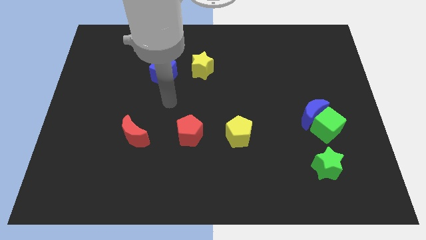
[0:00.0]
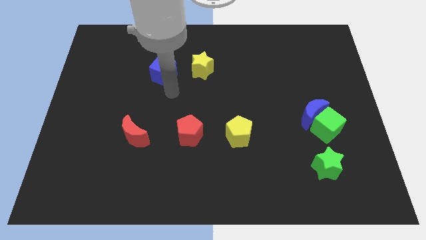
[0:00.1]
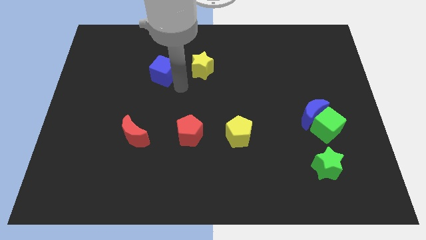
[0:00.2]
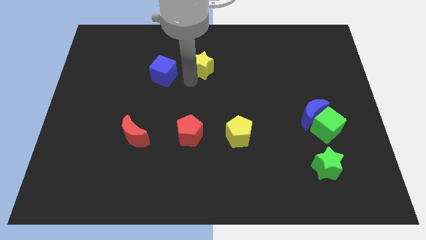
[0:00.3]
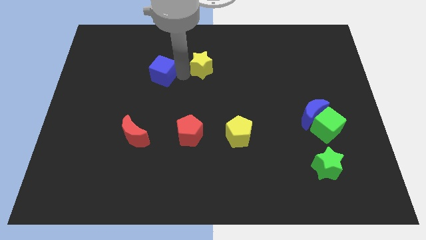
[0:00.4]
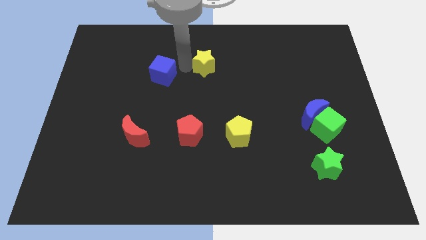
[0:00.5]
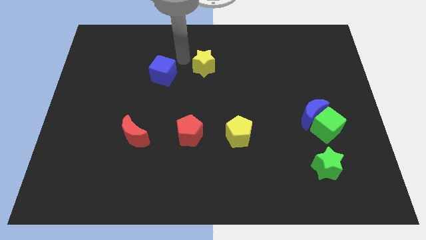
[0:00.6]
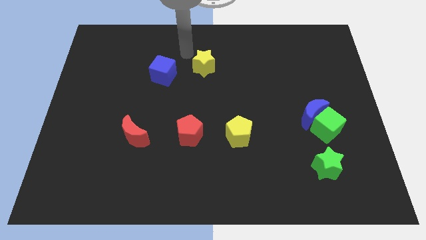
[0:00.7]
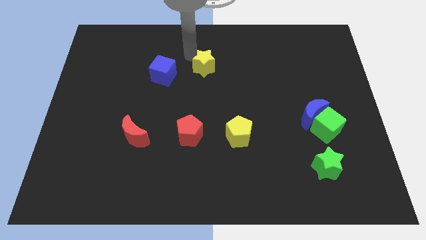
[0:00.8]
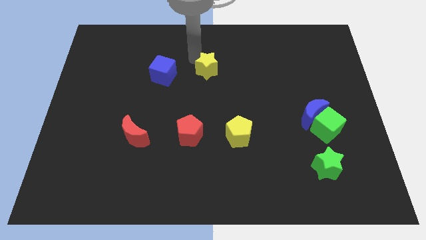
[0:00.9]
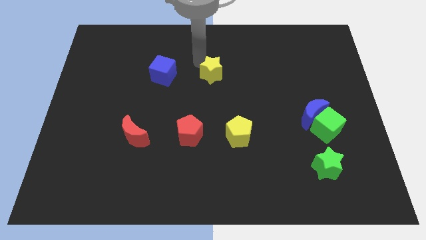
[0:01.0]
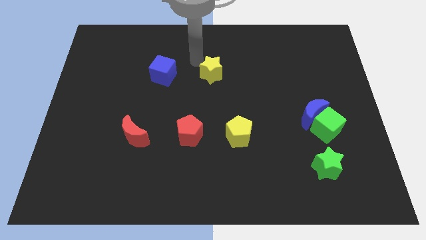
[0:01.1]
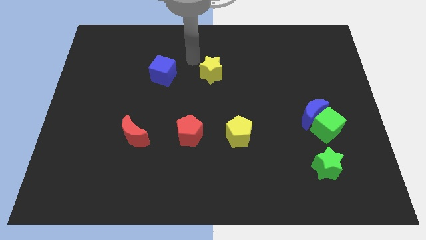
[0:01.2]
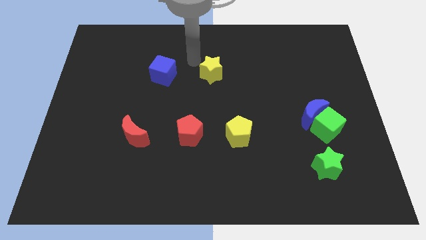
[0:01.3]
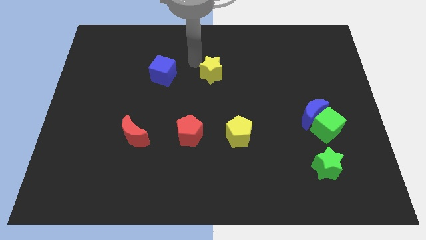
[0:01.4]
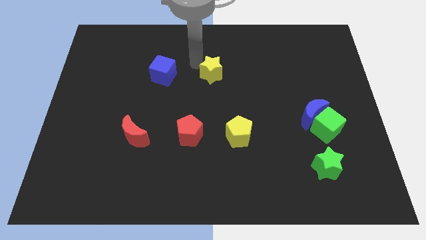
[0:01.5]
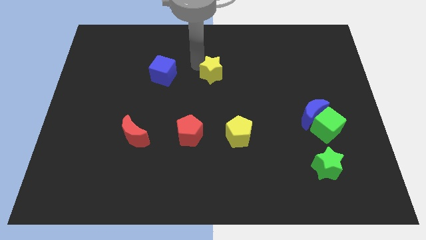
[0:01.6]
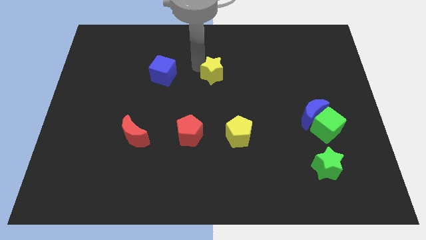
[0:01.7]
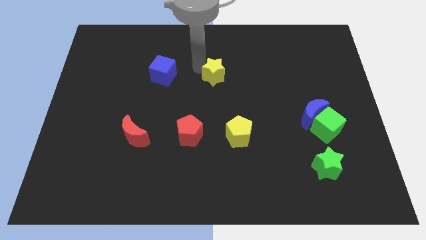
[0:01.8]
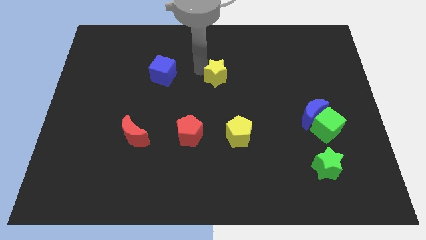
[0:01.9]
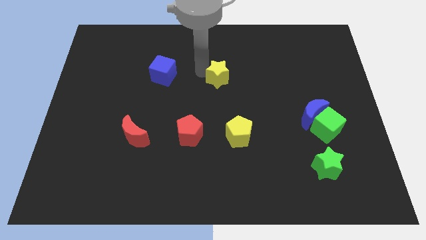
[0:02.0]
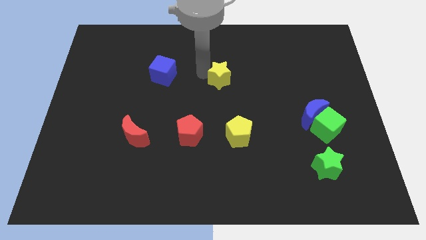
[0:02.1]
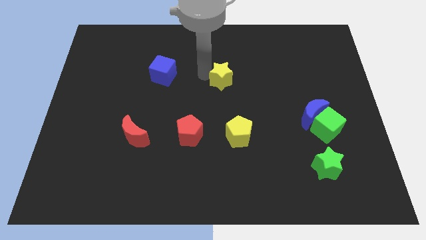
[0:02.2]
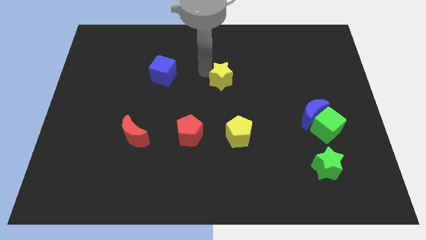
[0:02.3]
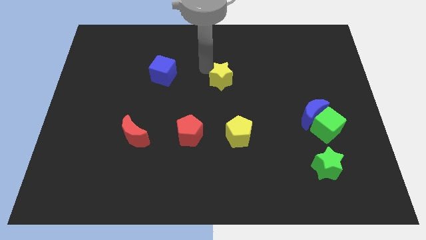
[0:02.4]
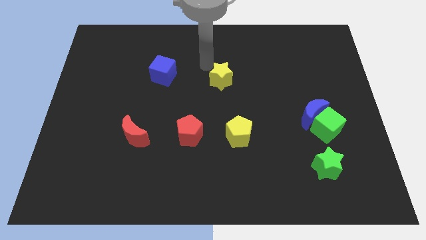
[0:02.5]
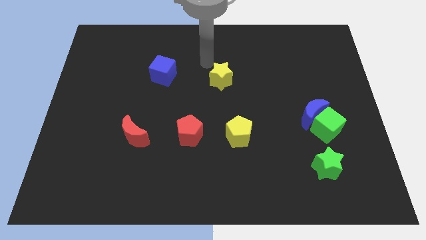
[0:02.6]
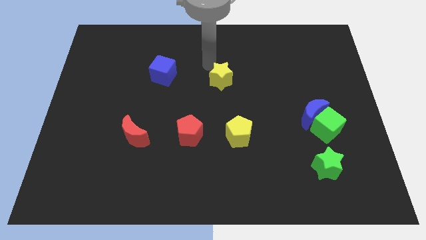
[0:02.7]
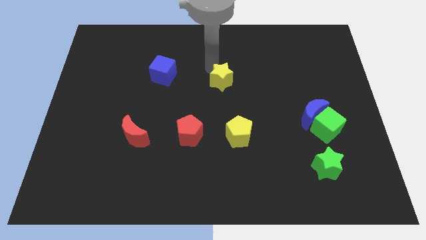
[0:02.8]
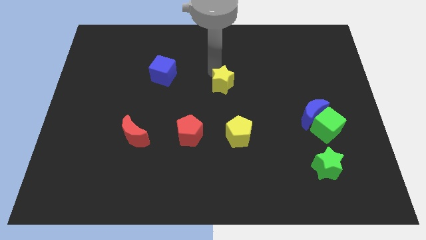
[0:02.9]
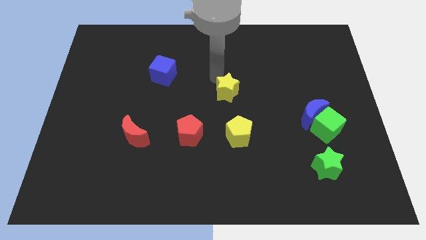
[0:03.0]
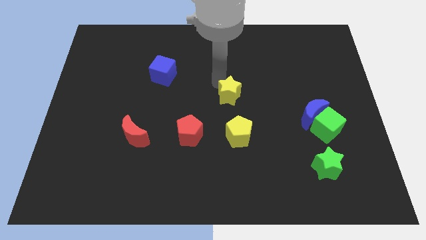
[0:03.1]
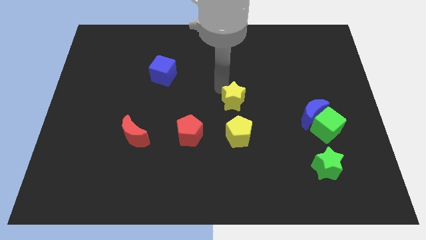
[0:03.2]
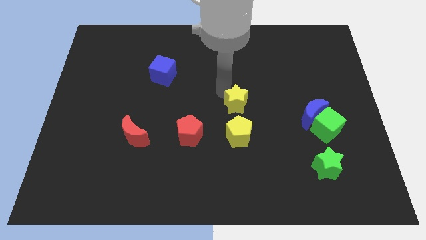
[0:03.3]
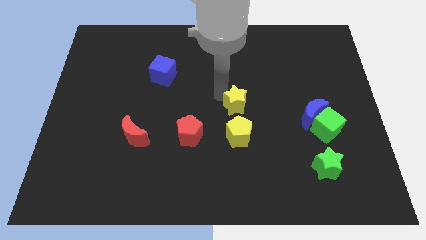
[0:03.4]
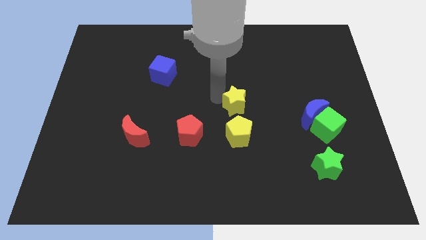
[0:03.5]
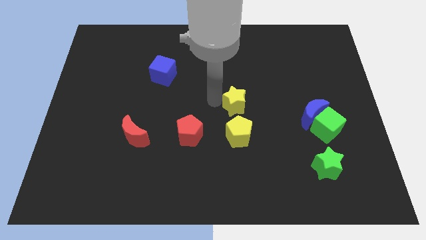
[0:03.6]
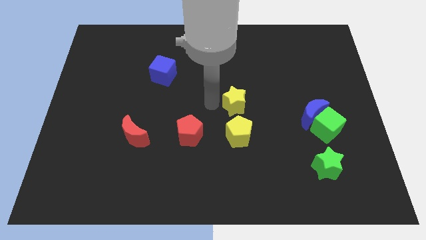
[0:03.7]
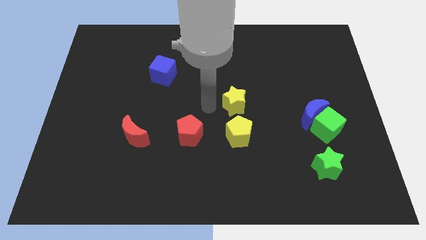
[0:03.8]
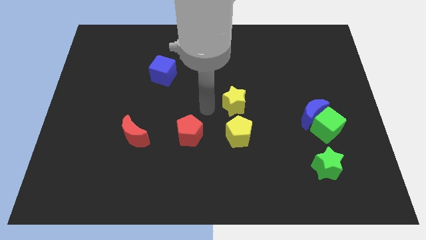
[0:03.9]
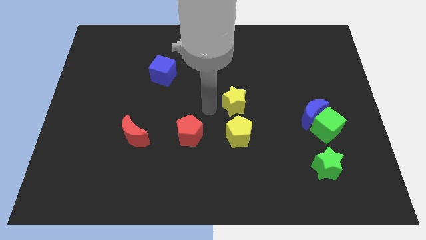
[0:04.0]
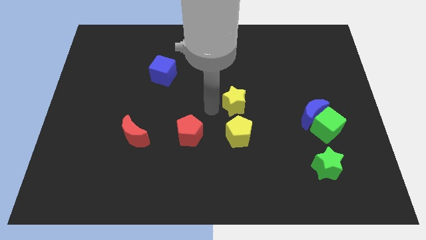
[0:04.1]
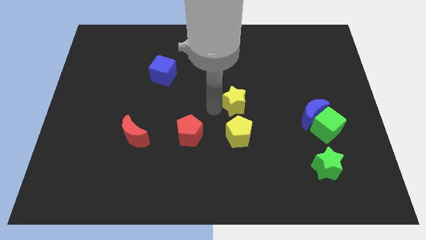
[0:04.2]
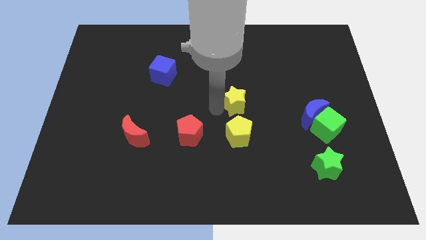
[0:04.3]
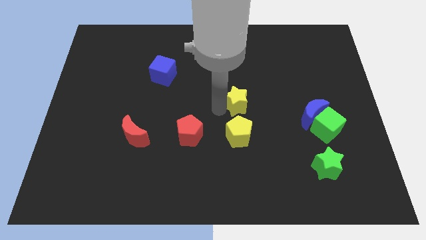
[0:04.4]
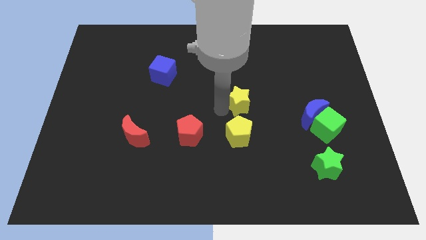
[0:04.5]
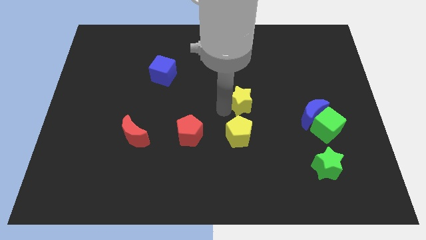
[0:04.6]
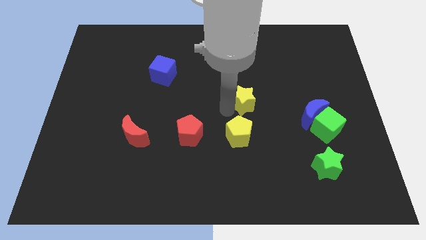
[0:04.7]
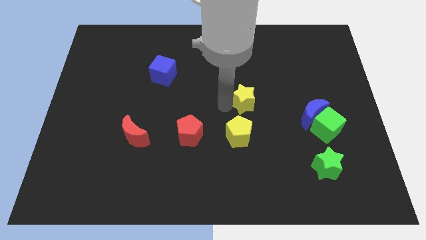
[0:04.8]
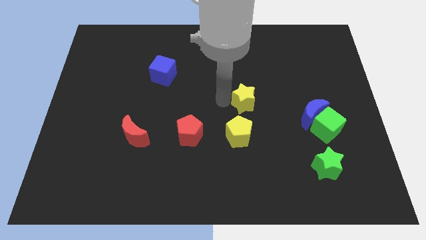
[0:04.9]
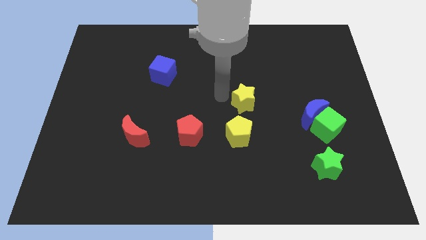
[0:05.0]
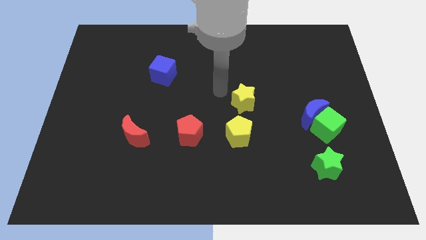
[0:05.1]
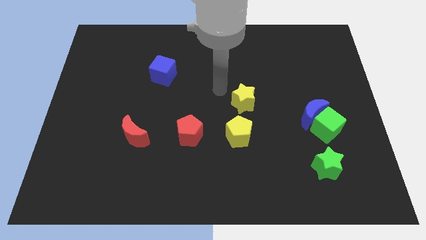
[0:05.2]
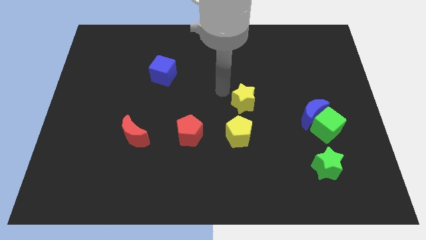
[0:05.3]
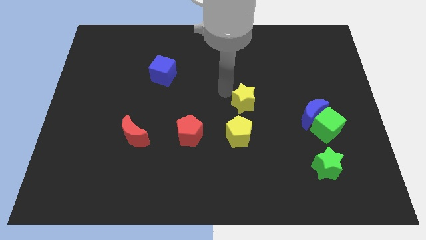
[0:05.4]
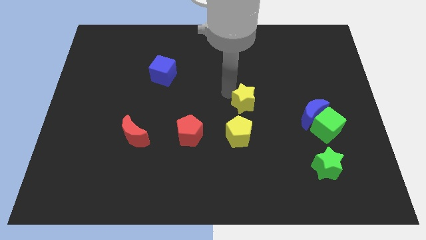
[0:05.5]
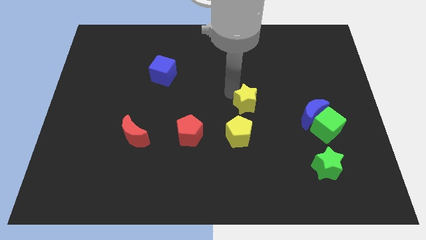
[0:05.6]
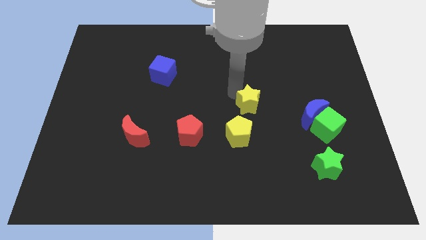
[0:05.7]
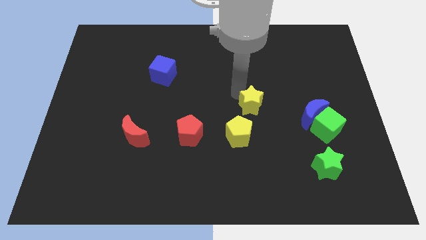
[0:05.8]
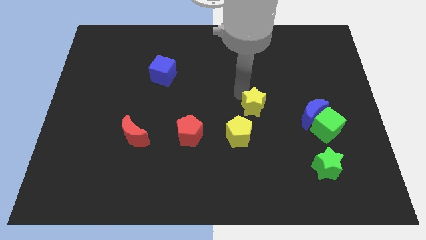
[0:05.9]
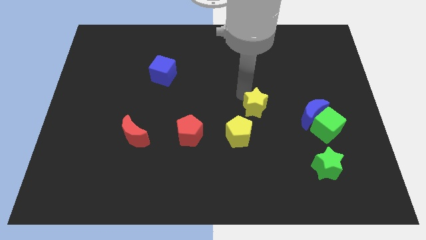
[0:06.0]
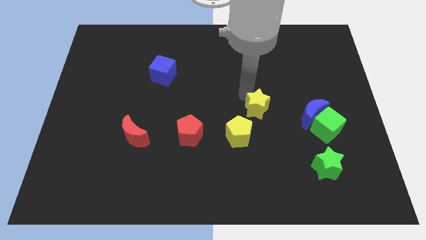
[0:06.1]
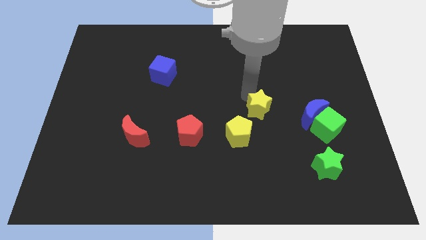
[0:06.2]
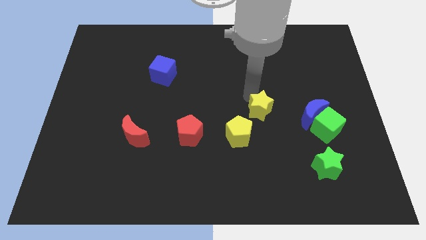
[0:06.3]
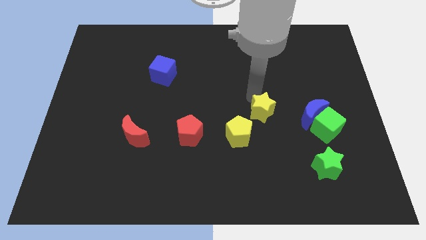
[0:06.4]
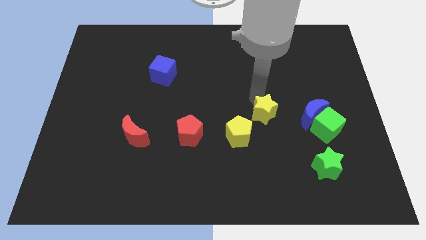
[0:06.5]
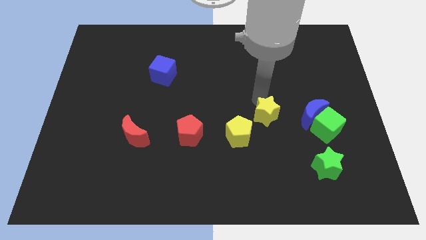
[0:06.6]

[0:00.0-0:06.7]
push the yellow star left of the green cube

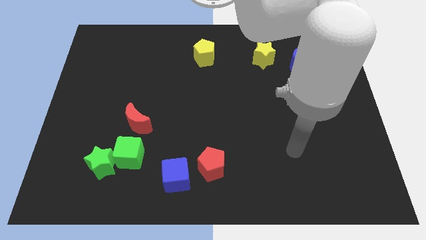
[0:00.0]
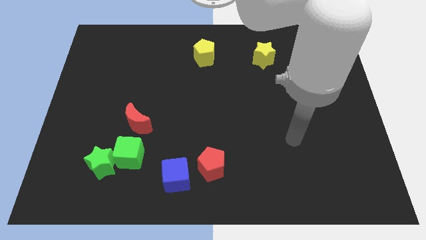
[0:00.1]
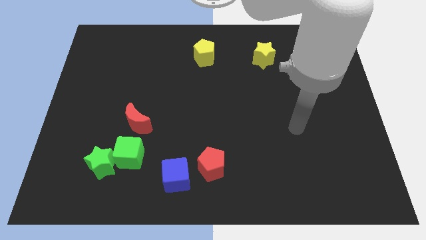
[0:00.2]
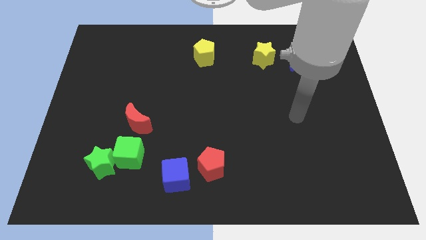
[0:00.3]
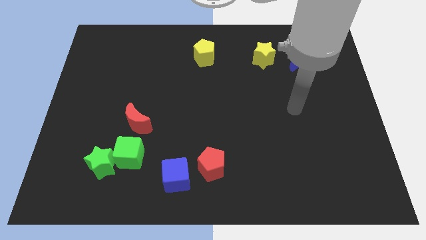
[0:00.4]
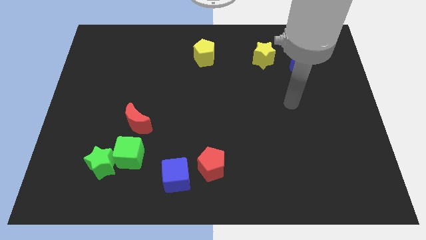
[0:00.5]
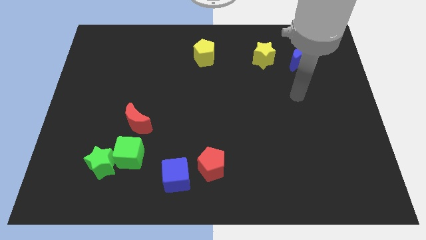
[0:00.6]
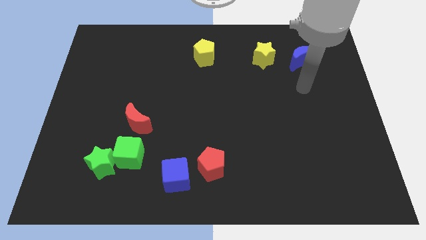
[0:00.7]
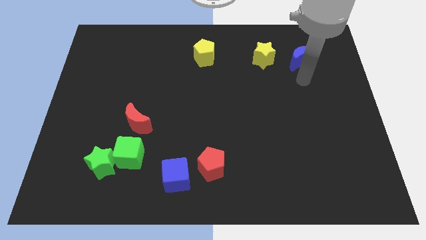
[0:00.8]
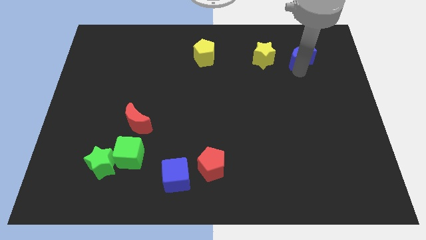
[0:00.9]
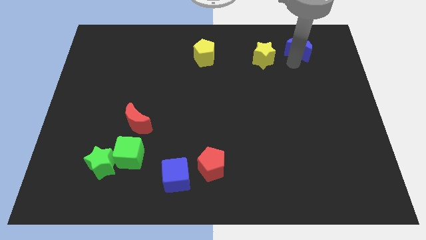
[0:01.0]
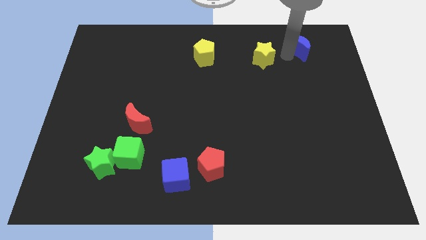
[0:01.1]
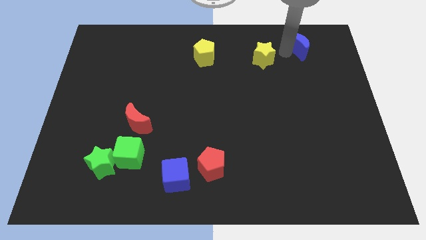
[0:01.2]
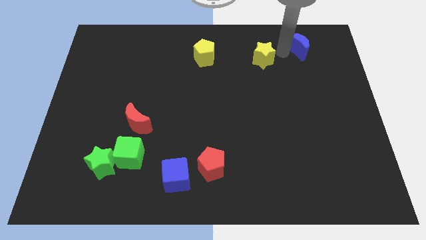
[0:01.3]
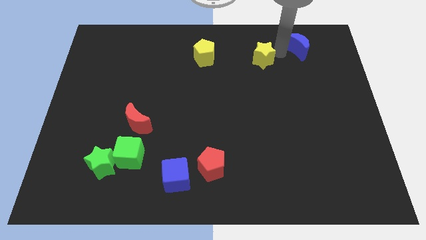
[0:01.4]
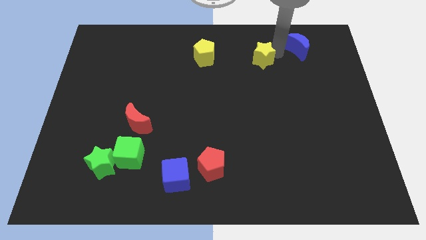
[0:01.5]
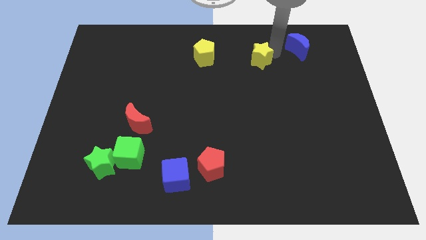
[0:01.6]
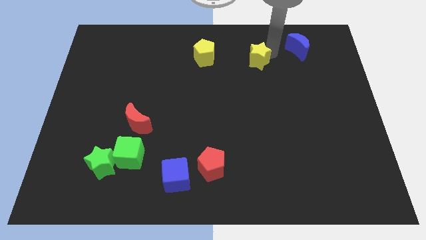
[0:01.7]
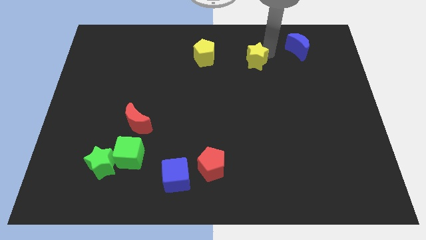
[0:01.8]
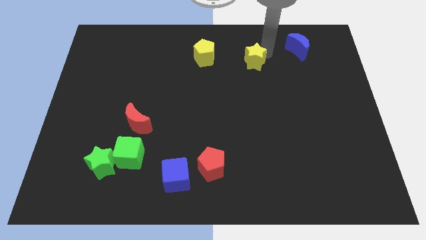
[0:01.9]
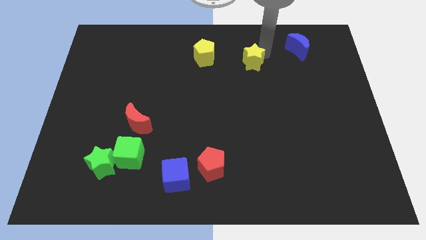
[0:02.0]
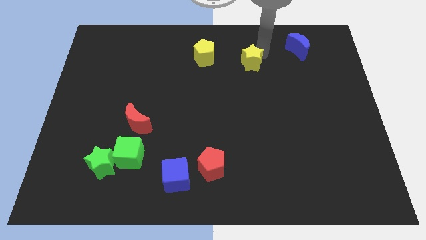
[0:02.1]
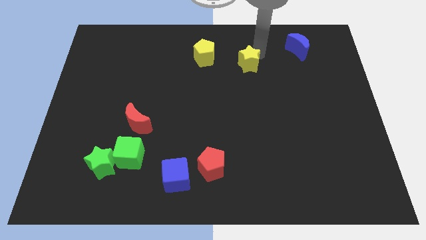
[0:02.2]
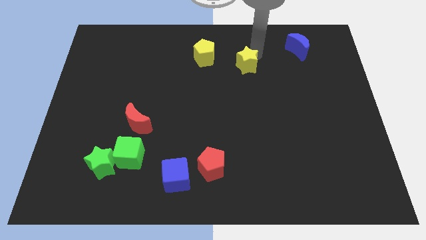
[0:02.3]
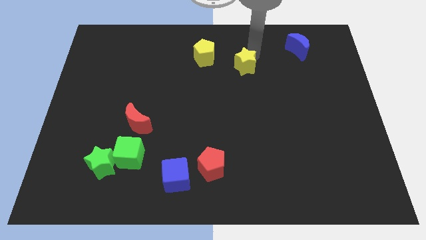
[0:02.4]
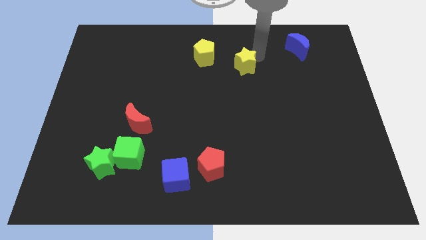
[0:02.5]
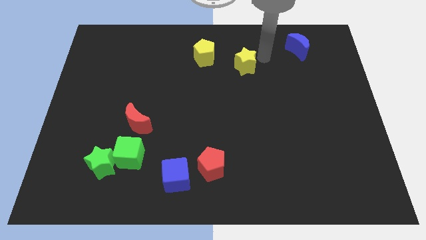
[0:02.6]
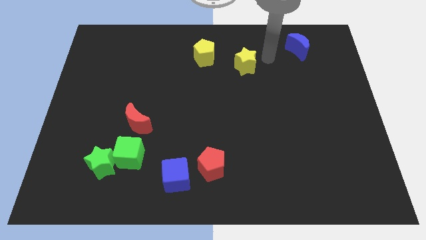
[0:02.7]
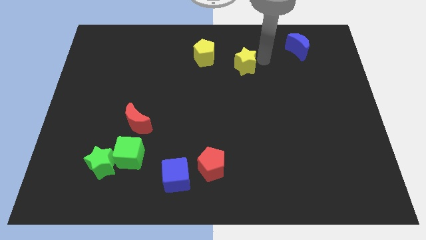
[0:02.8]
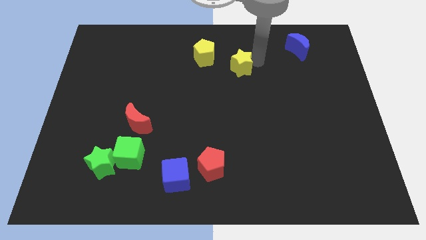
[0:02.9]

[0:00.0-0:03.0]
slide the yellow star to the bottom right side of the yellow pentagon
